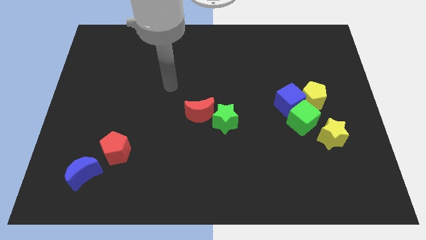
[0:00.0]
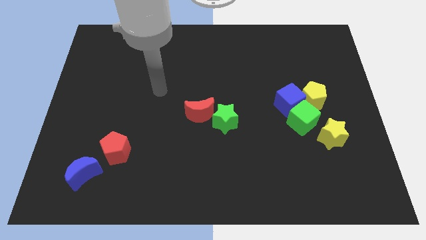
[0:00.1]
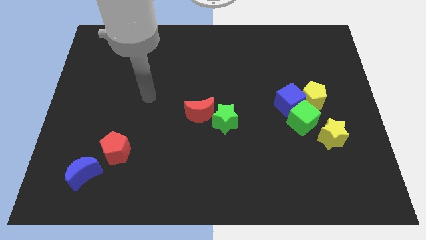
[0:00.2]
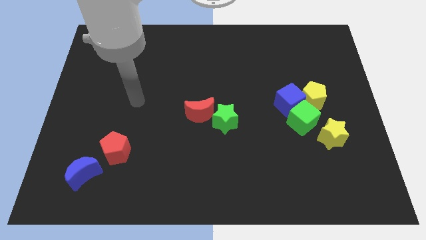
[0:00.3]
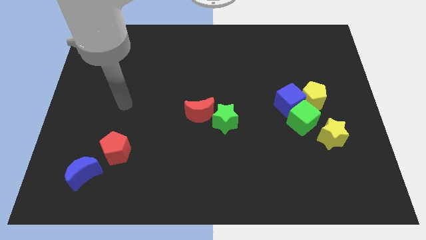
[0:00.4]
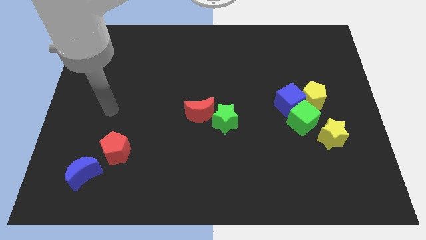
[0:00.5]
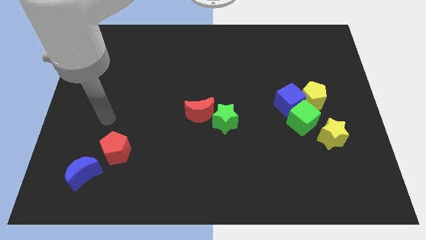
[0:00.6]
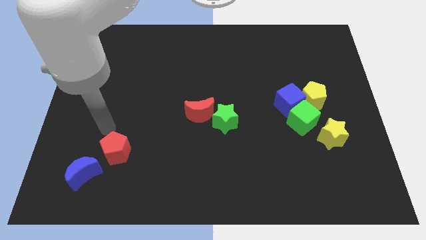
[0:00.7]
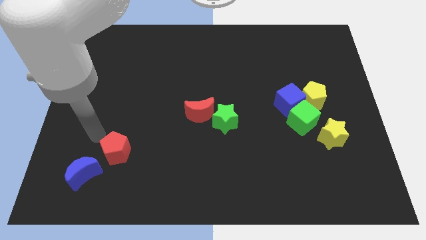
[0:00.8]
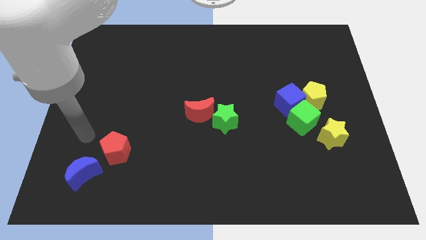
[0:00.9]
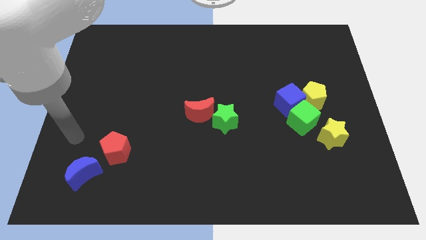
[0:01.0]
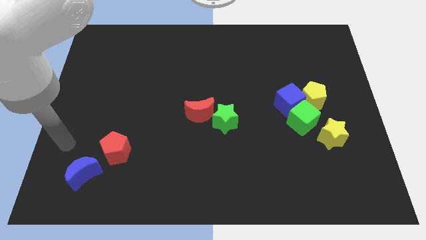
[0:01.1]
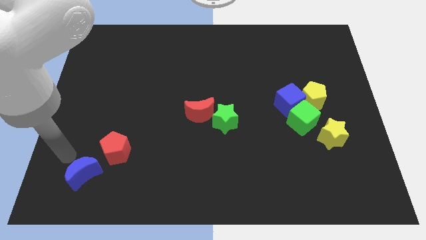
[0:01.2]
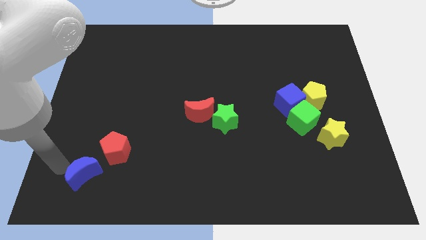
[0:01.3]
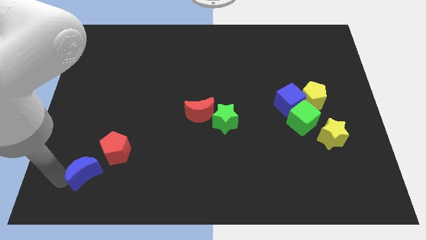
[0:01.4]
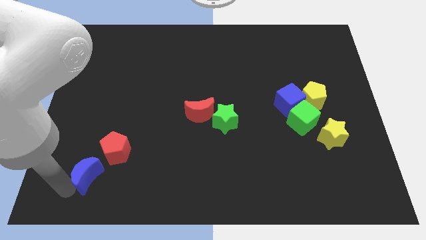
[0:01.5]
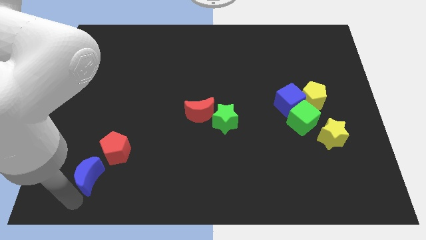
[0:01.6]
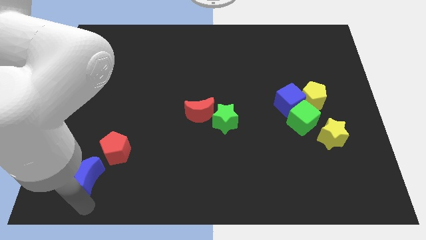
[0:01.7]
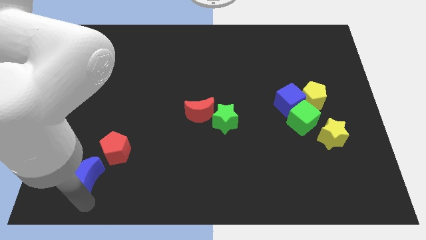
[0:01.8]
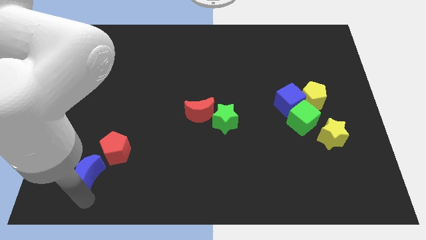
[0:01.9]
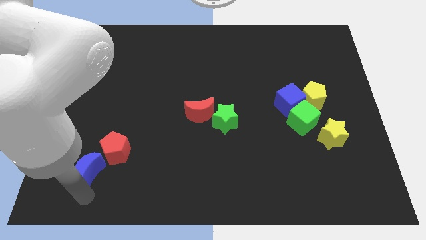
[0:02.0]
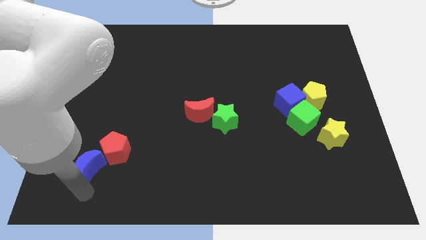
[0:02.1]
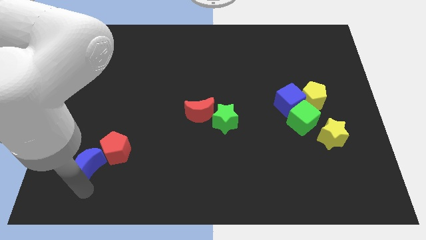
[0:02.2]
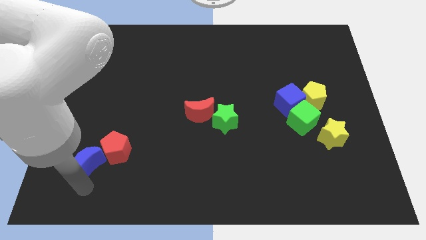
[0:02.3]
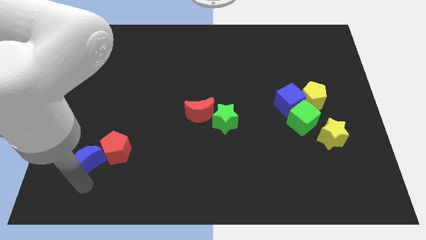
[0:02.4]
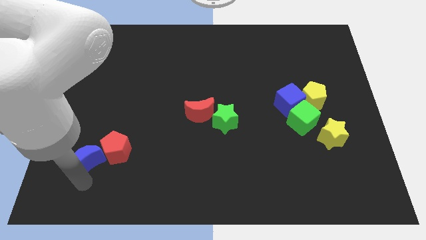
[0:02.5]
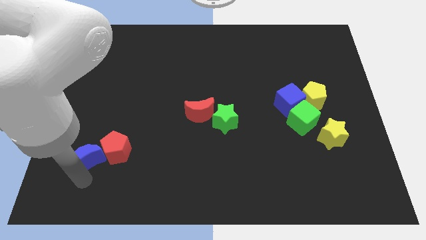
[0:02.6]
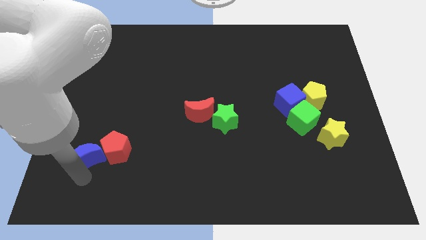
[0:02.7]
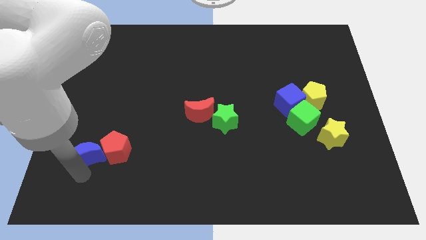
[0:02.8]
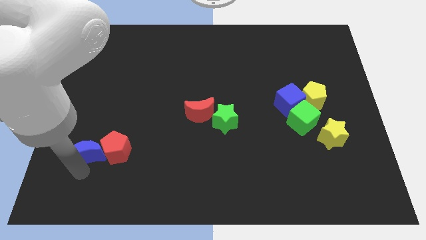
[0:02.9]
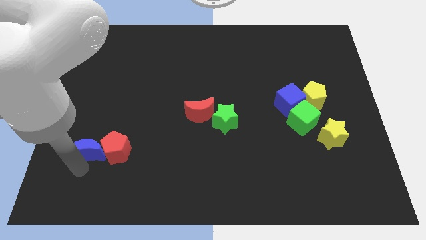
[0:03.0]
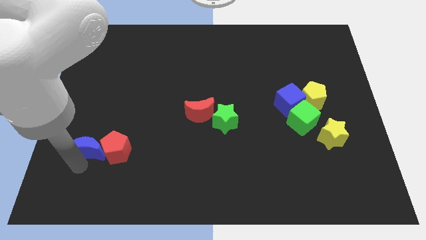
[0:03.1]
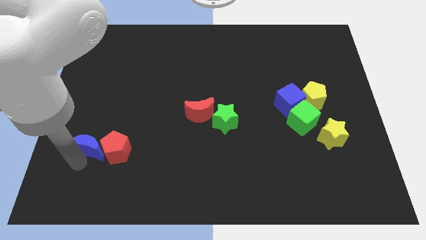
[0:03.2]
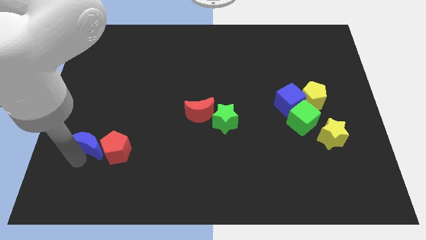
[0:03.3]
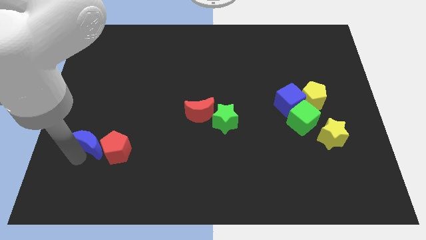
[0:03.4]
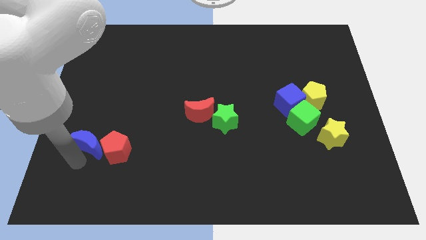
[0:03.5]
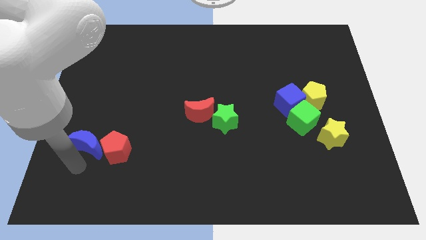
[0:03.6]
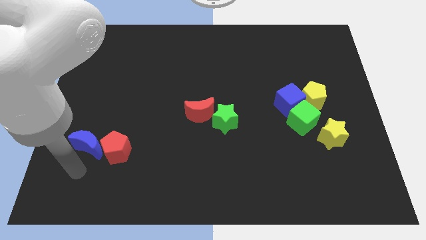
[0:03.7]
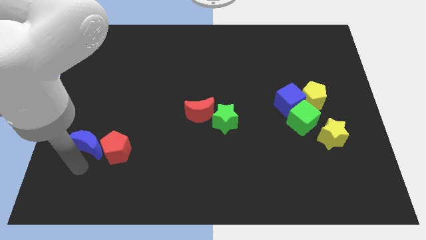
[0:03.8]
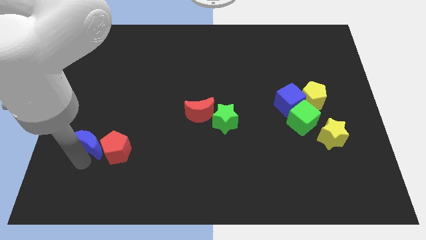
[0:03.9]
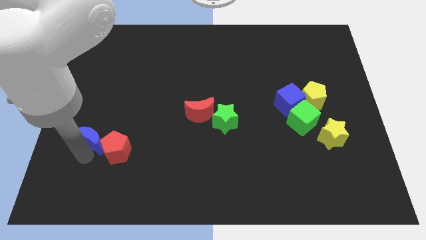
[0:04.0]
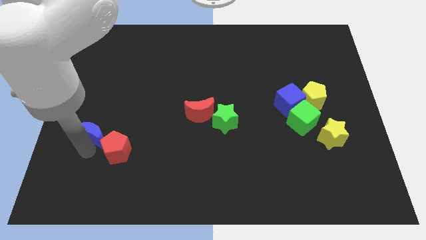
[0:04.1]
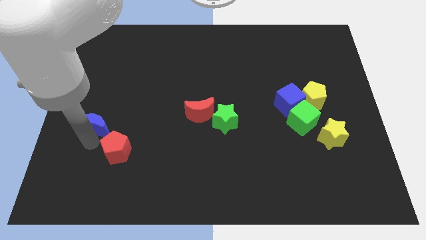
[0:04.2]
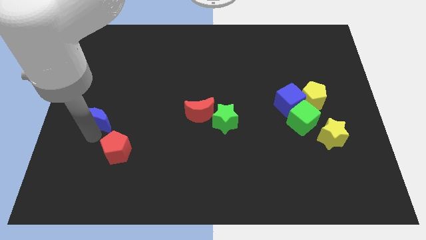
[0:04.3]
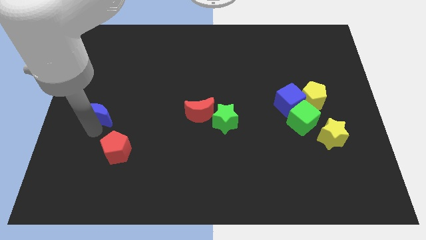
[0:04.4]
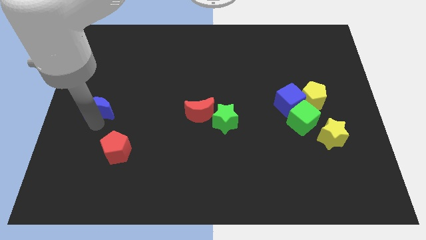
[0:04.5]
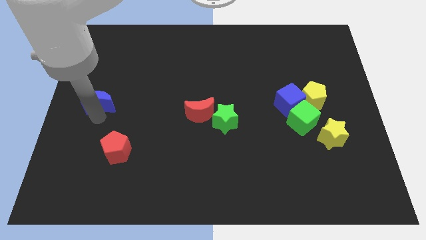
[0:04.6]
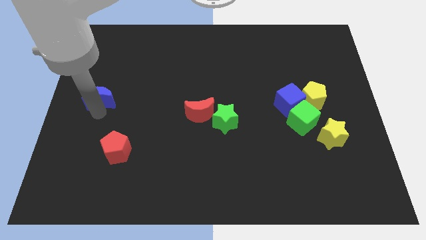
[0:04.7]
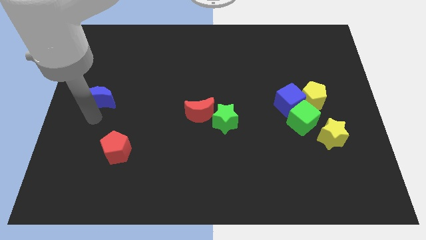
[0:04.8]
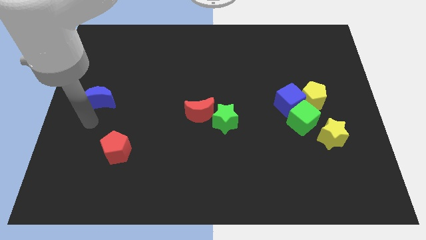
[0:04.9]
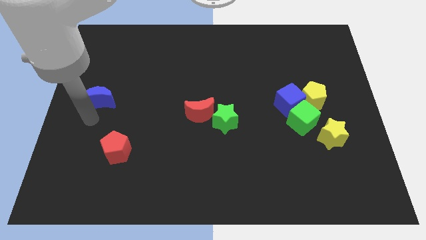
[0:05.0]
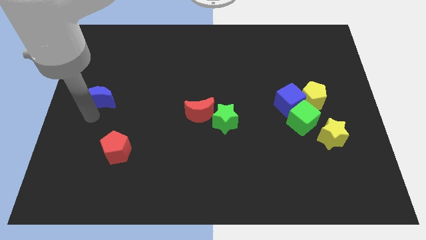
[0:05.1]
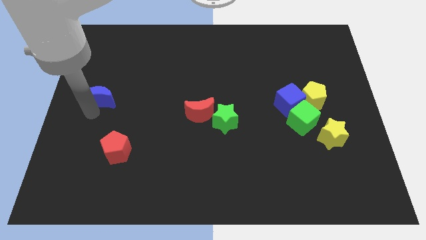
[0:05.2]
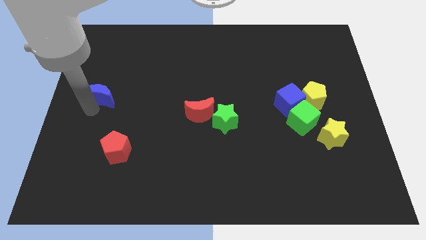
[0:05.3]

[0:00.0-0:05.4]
slide the blue moon upwards

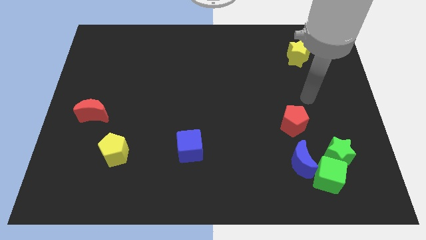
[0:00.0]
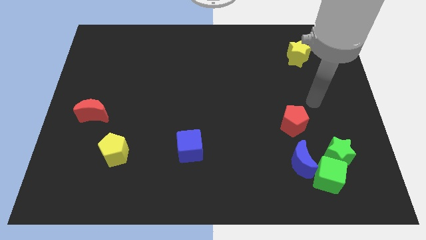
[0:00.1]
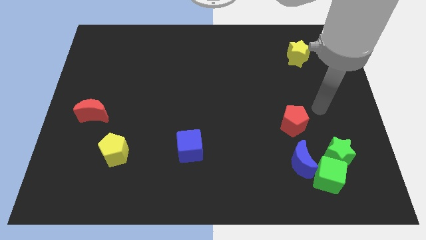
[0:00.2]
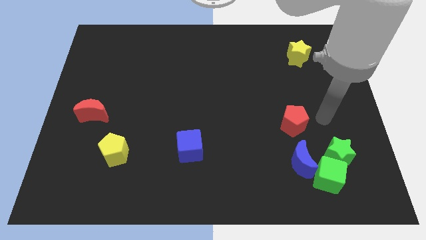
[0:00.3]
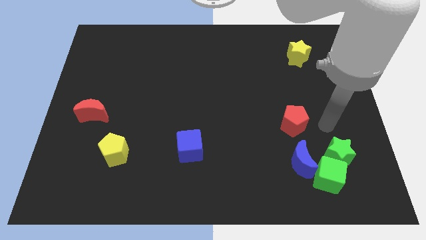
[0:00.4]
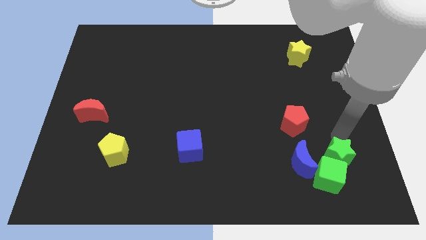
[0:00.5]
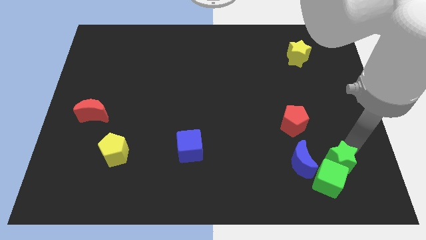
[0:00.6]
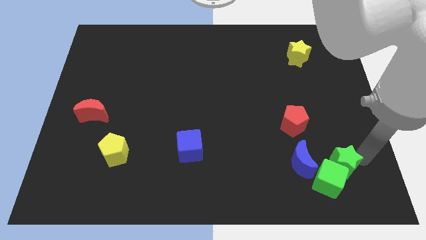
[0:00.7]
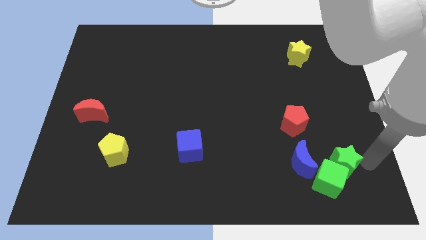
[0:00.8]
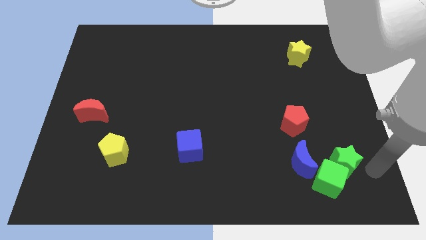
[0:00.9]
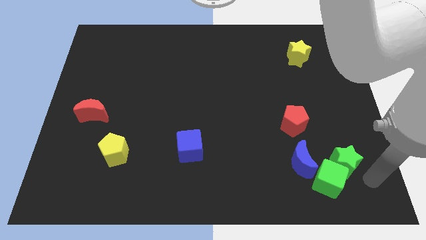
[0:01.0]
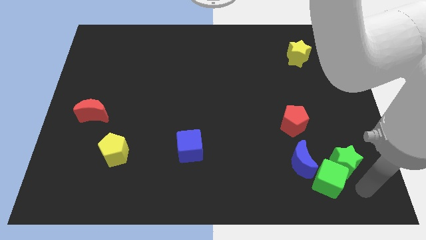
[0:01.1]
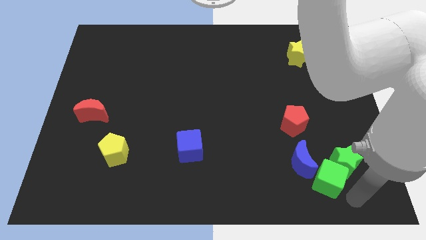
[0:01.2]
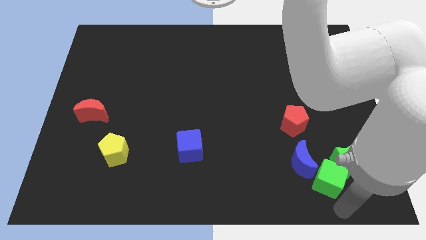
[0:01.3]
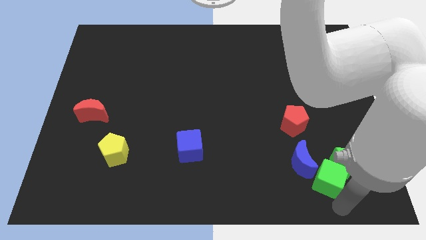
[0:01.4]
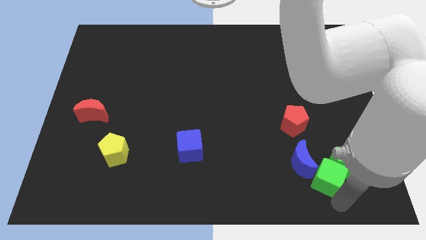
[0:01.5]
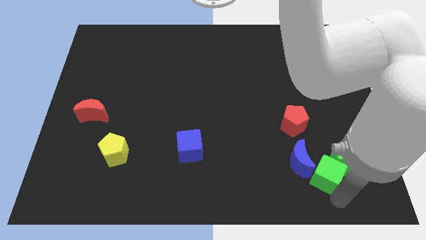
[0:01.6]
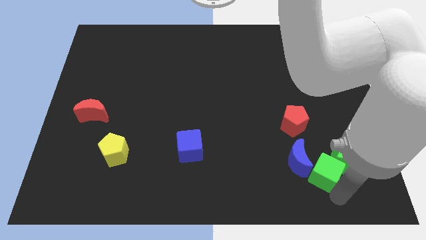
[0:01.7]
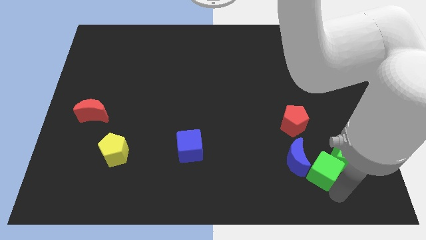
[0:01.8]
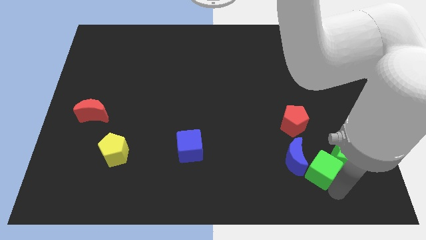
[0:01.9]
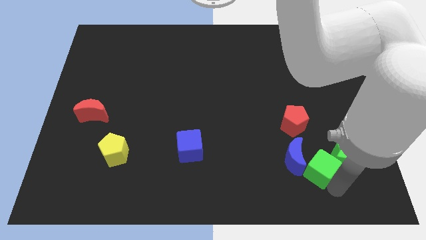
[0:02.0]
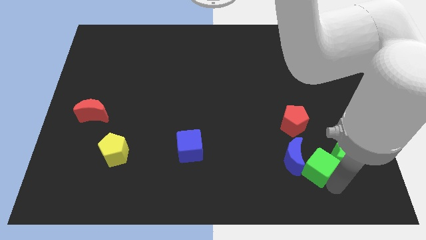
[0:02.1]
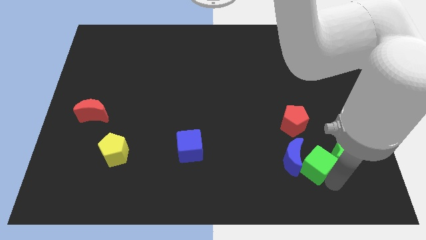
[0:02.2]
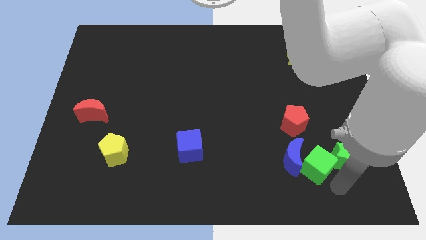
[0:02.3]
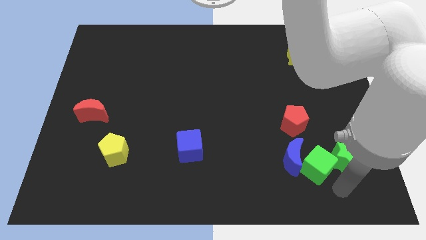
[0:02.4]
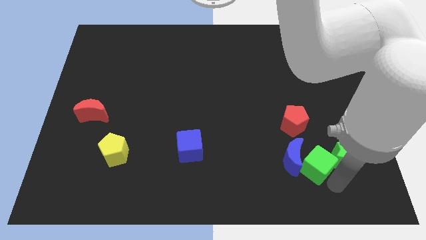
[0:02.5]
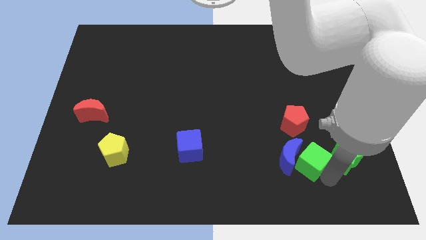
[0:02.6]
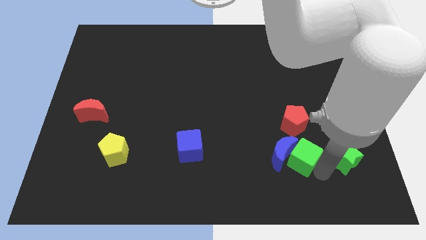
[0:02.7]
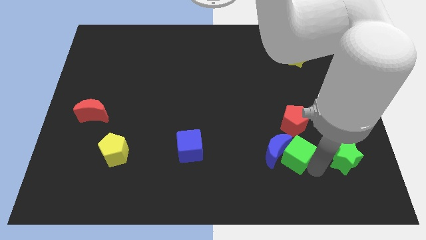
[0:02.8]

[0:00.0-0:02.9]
move the green cube a bit up and then left
